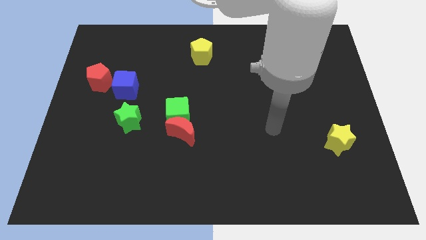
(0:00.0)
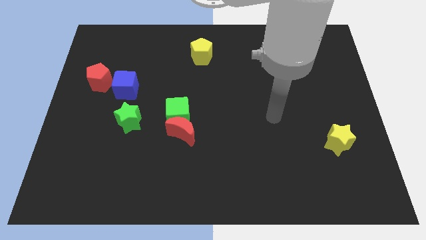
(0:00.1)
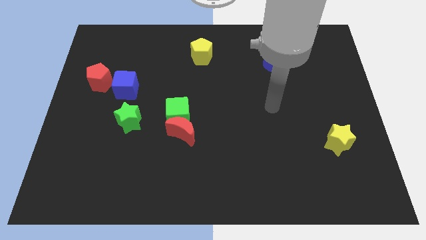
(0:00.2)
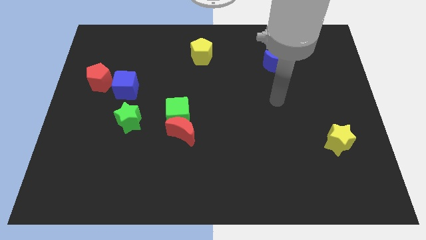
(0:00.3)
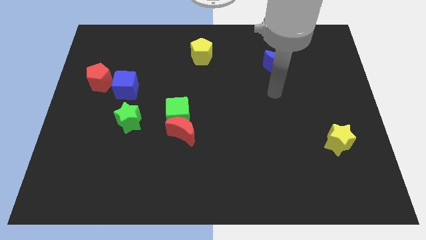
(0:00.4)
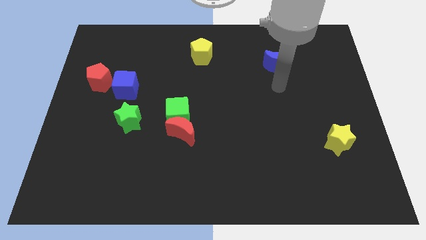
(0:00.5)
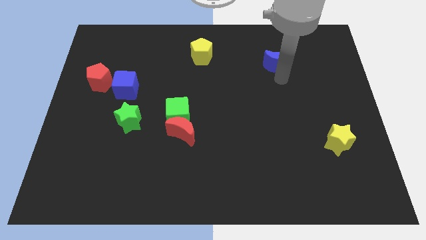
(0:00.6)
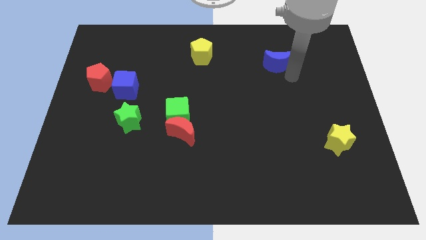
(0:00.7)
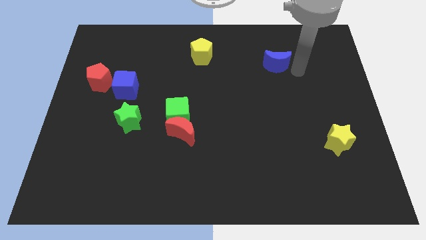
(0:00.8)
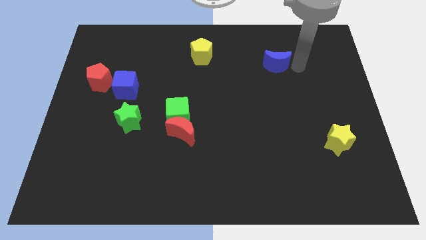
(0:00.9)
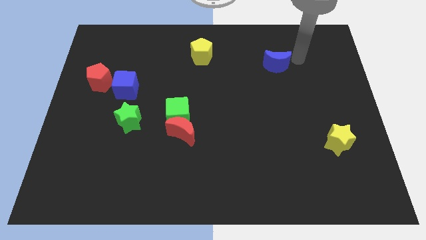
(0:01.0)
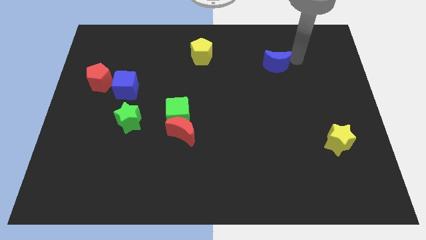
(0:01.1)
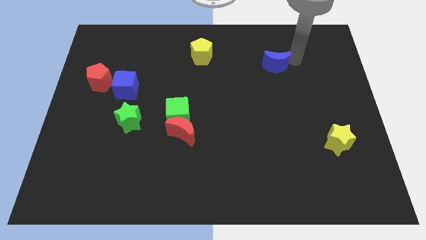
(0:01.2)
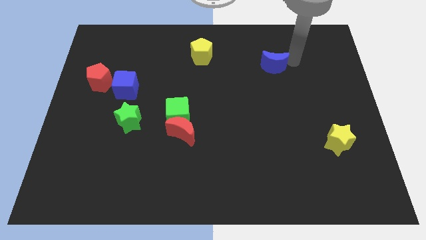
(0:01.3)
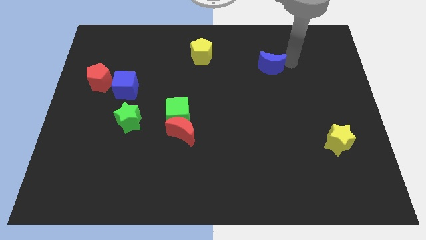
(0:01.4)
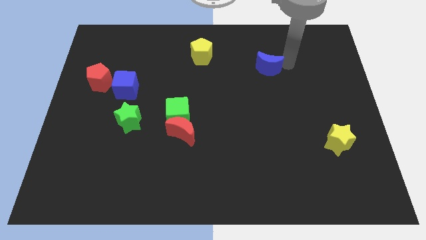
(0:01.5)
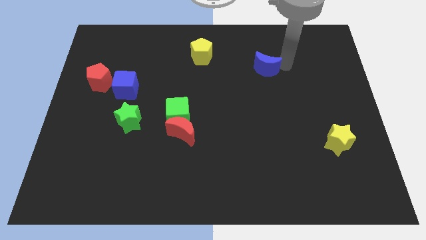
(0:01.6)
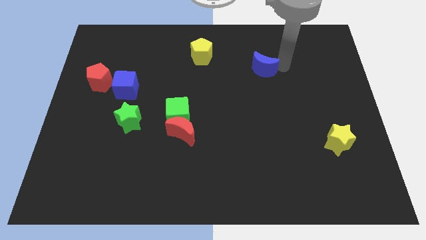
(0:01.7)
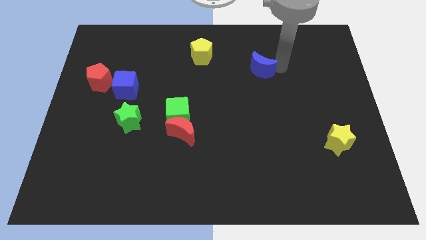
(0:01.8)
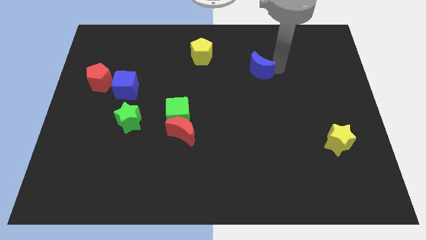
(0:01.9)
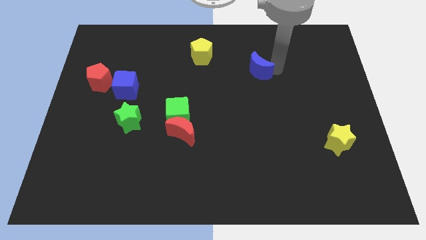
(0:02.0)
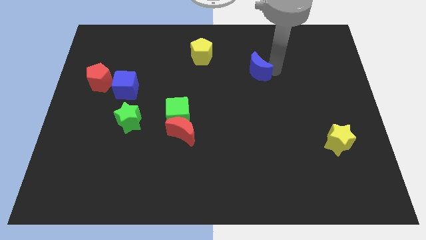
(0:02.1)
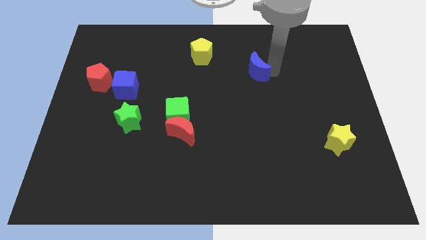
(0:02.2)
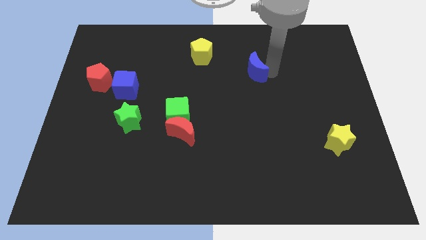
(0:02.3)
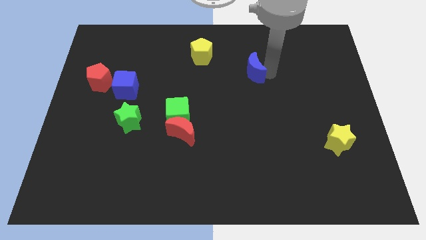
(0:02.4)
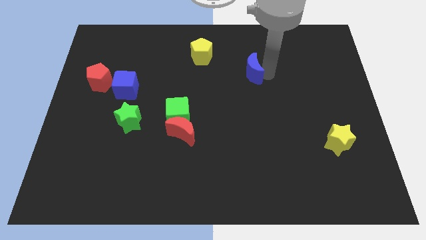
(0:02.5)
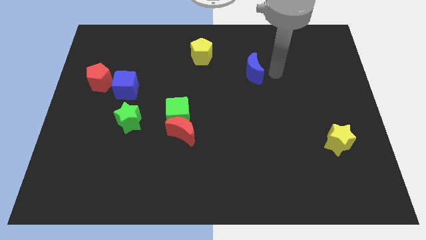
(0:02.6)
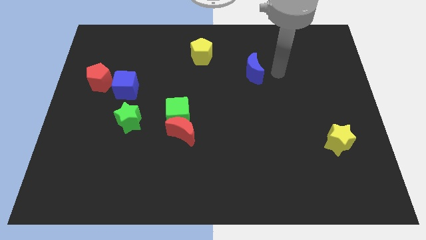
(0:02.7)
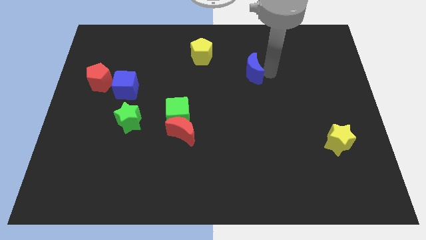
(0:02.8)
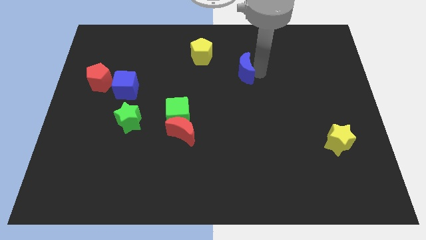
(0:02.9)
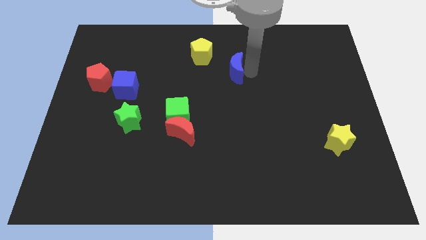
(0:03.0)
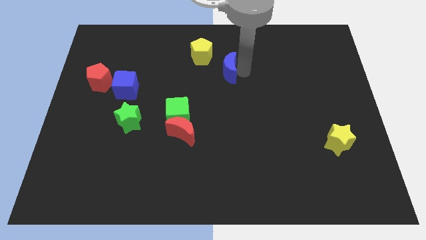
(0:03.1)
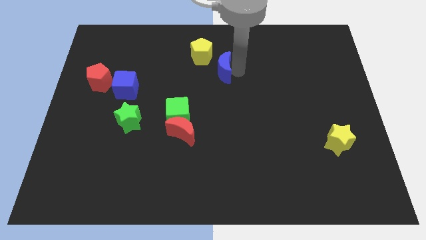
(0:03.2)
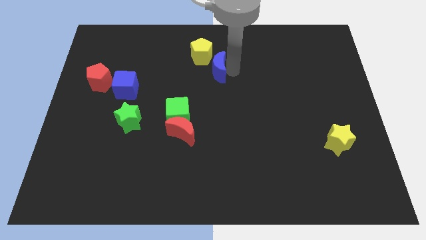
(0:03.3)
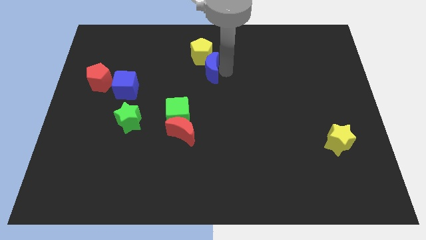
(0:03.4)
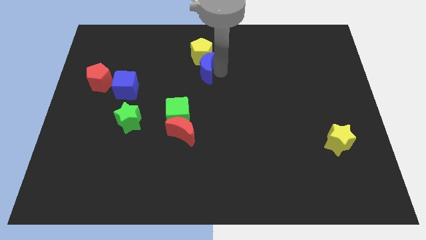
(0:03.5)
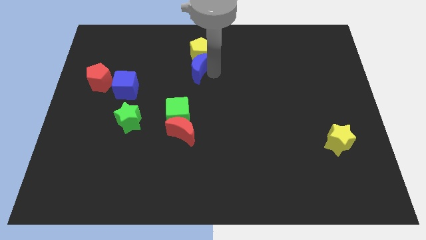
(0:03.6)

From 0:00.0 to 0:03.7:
slide the blue moon to the left

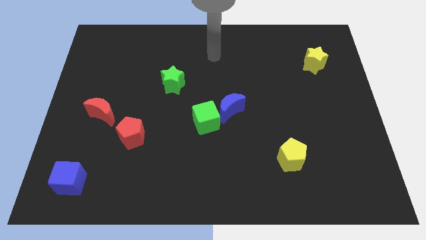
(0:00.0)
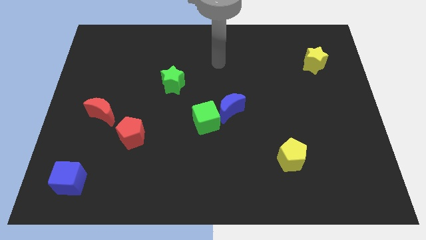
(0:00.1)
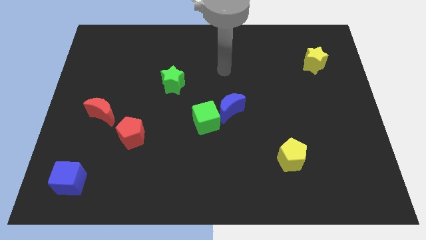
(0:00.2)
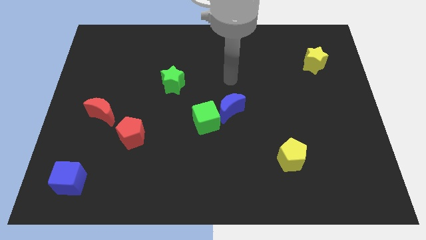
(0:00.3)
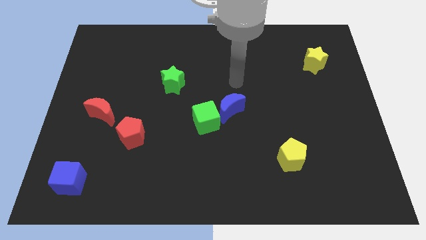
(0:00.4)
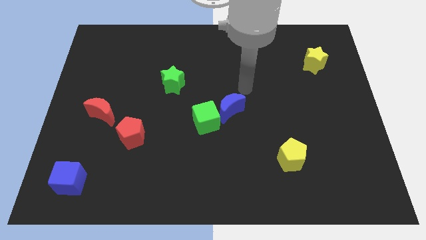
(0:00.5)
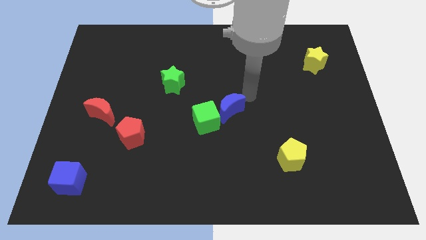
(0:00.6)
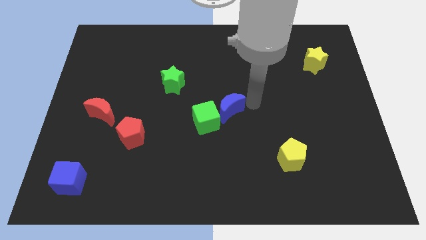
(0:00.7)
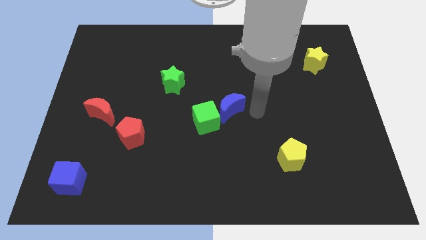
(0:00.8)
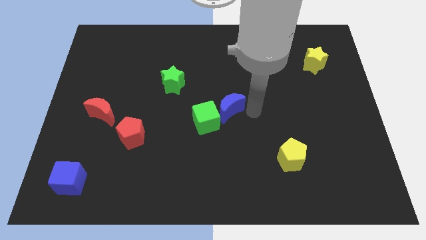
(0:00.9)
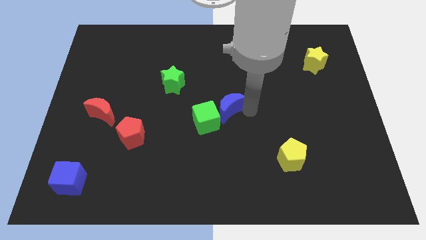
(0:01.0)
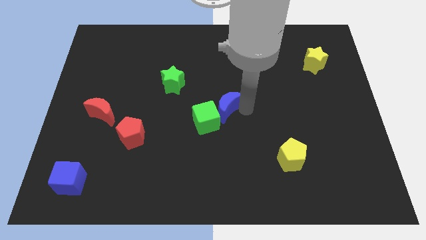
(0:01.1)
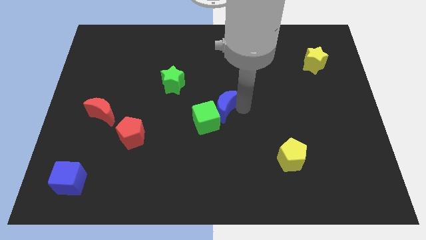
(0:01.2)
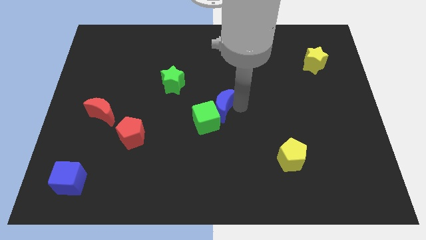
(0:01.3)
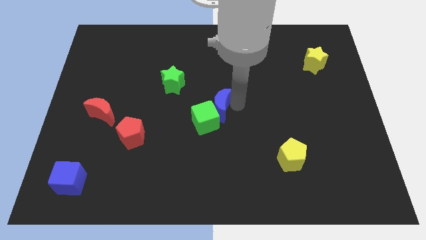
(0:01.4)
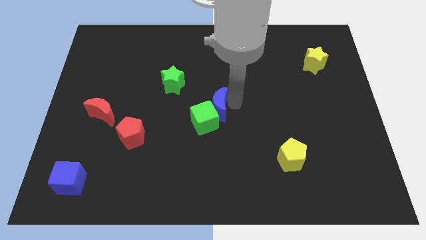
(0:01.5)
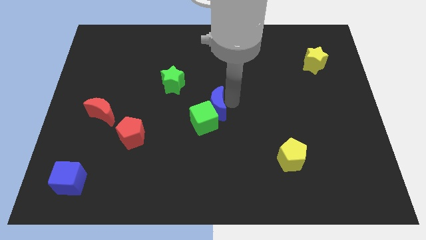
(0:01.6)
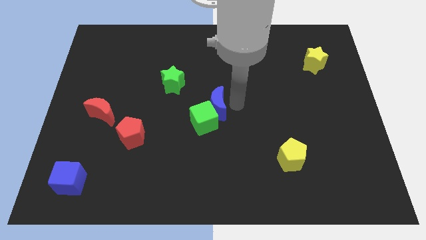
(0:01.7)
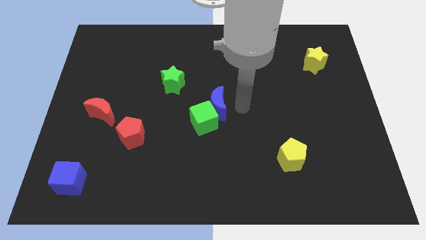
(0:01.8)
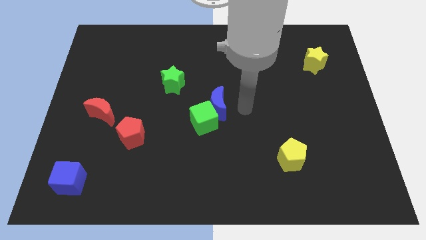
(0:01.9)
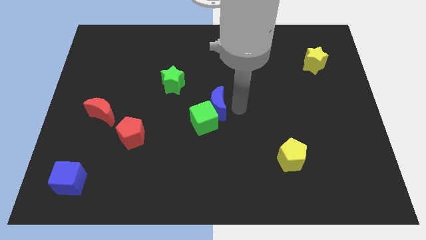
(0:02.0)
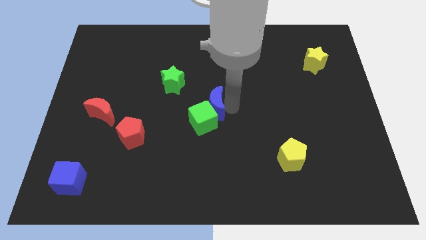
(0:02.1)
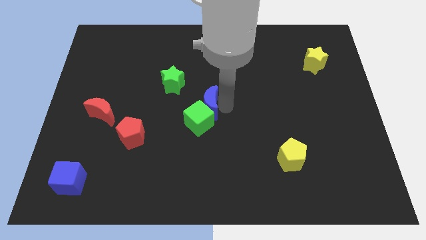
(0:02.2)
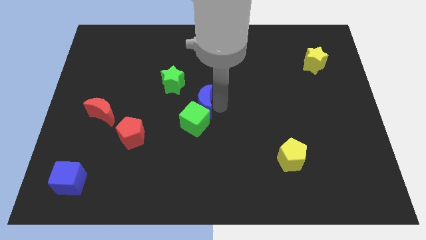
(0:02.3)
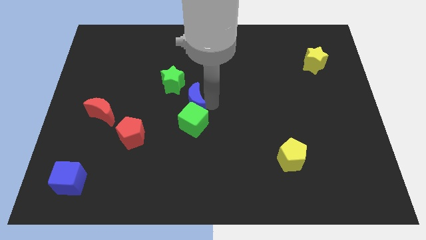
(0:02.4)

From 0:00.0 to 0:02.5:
slide the blue moon slightly to the left

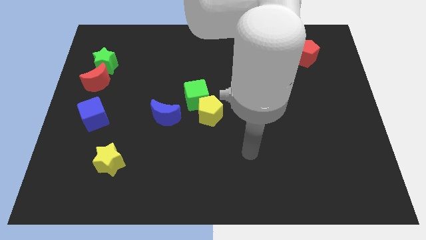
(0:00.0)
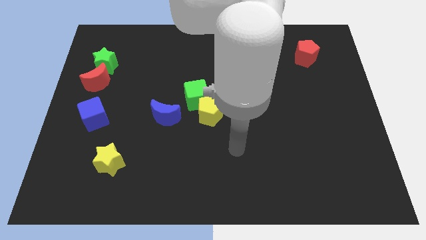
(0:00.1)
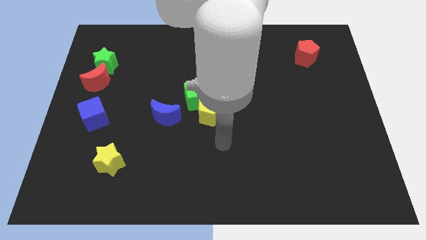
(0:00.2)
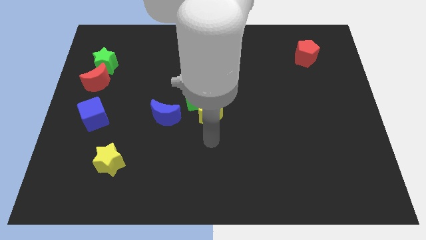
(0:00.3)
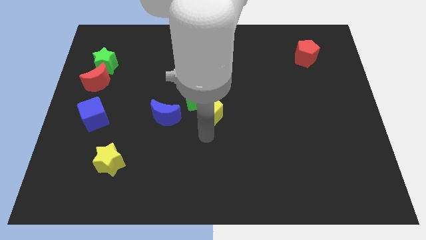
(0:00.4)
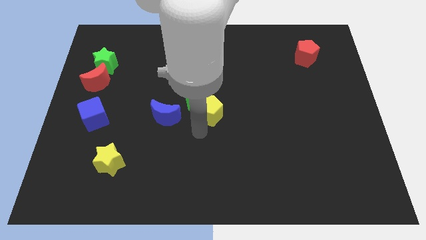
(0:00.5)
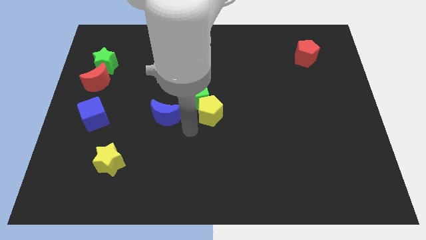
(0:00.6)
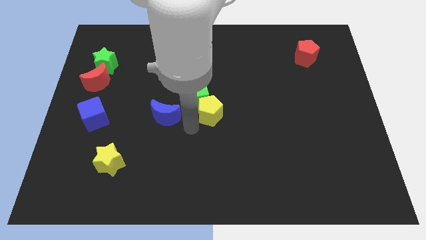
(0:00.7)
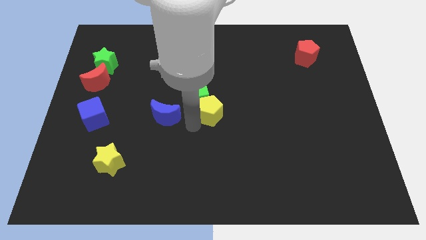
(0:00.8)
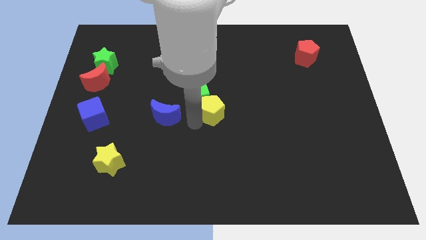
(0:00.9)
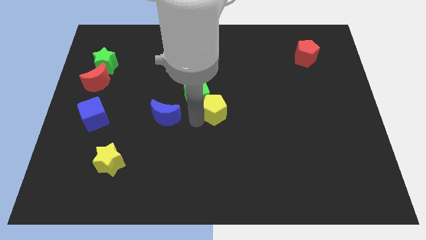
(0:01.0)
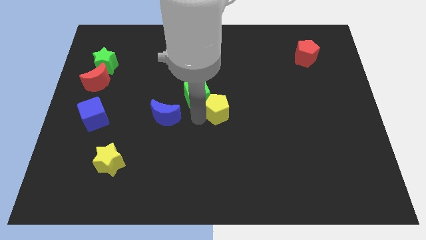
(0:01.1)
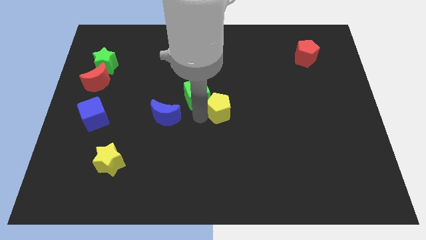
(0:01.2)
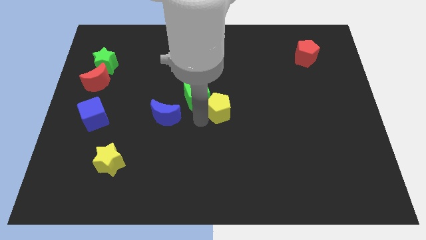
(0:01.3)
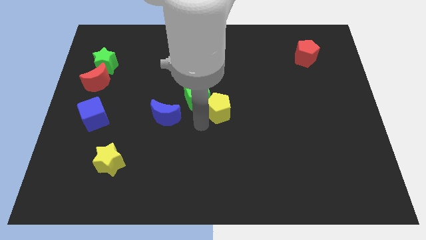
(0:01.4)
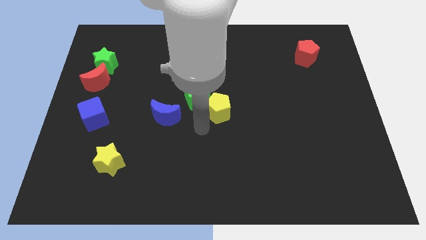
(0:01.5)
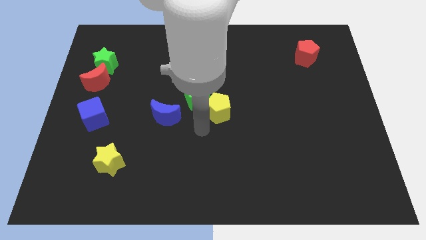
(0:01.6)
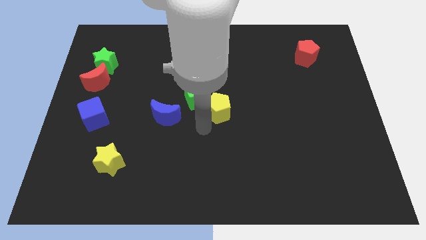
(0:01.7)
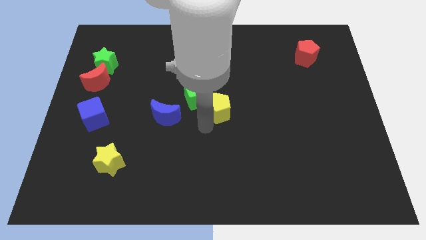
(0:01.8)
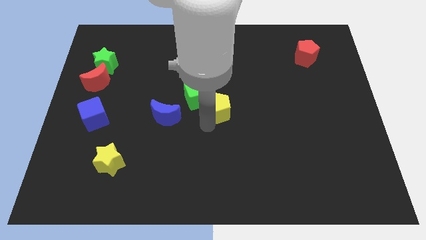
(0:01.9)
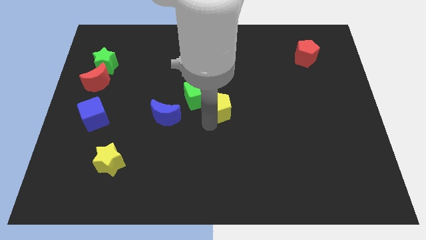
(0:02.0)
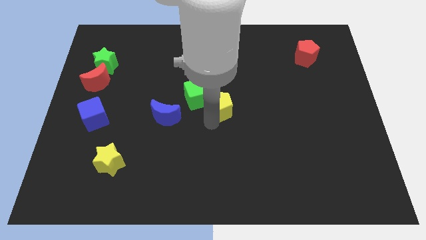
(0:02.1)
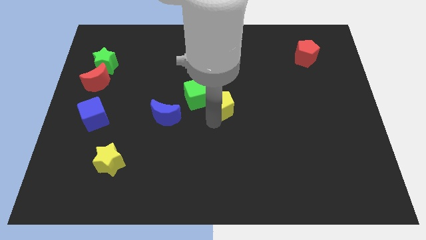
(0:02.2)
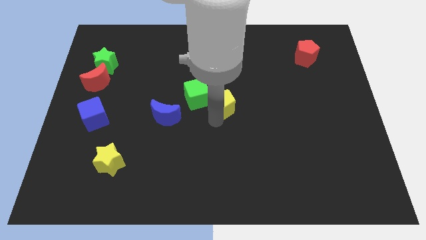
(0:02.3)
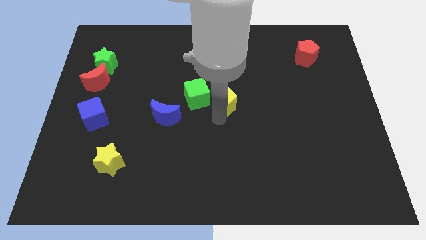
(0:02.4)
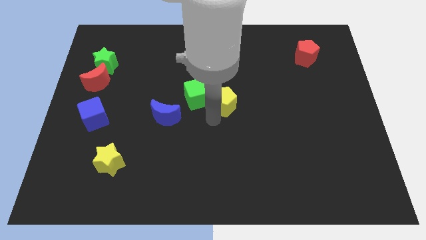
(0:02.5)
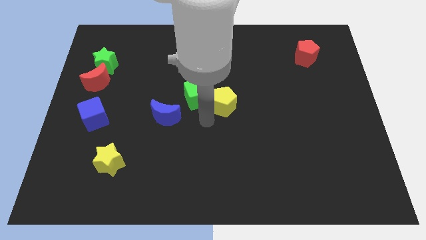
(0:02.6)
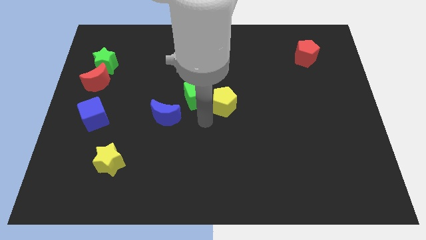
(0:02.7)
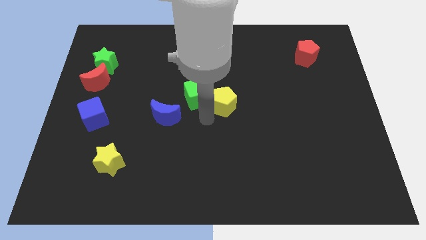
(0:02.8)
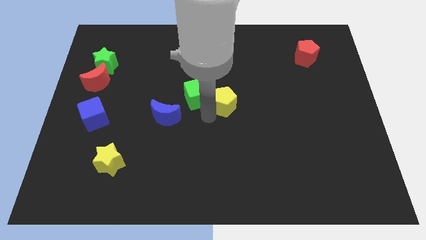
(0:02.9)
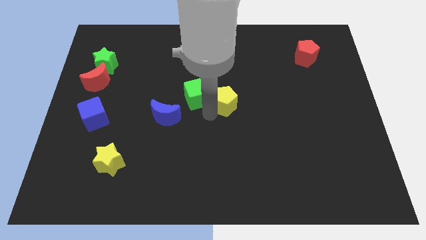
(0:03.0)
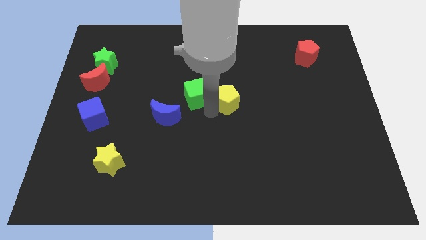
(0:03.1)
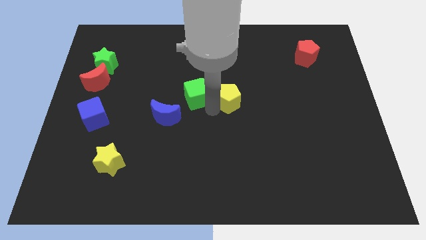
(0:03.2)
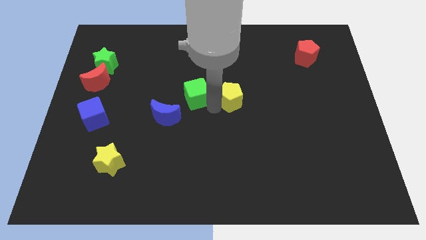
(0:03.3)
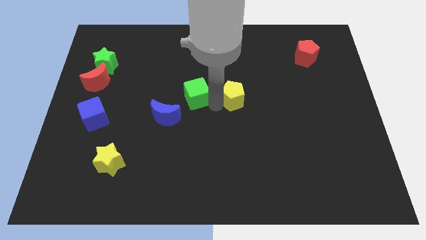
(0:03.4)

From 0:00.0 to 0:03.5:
slightly slide the yellow pentagon up and then right
